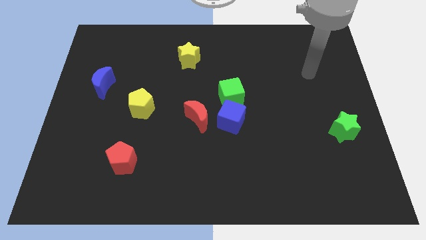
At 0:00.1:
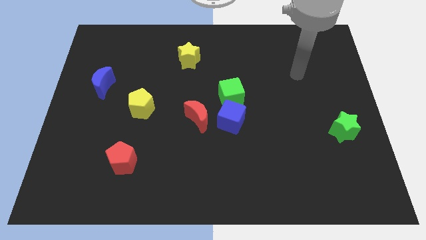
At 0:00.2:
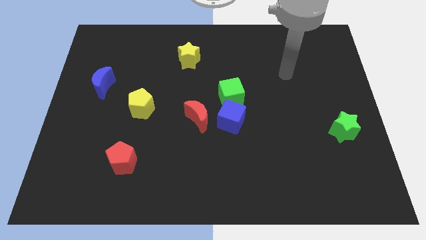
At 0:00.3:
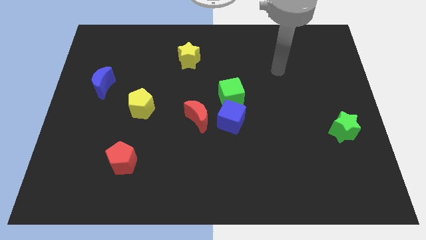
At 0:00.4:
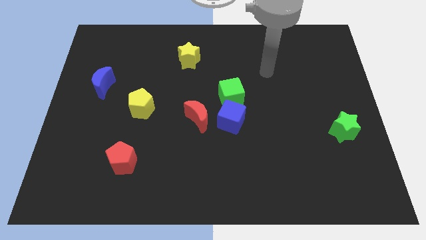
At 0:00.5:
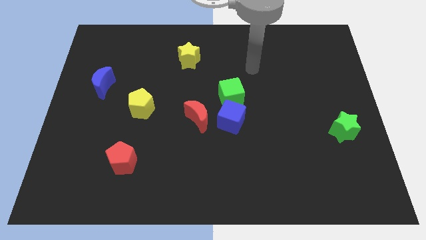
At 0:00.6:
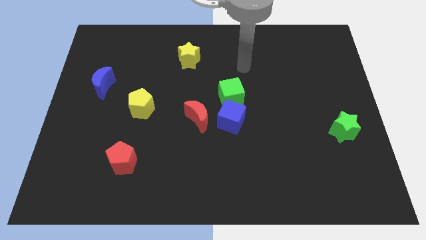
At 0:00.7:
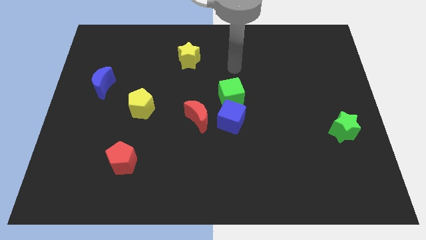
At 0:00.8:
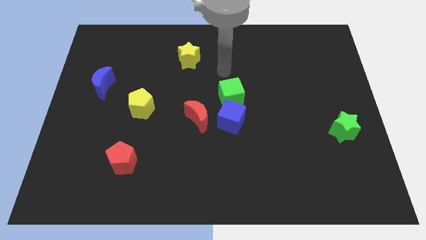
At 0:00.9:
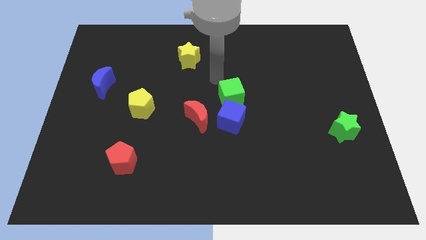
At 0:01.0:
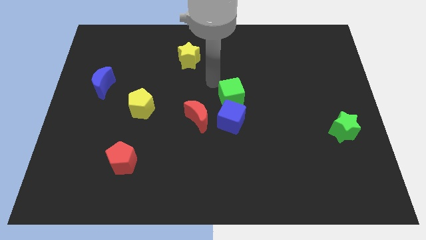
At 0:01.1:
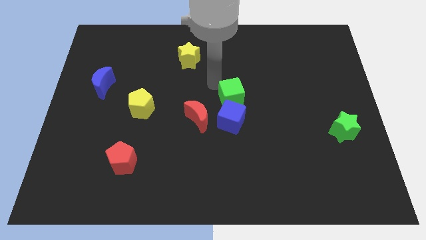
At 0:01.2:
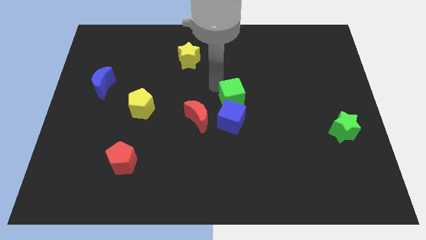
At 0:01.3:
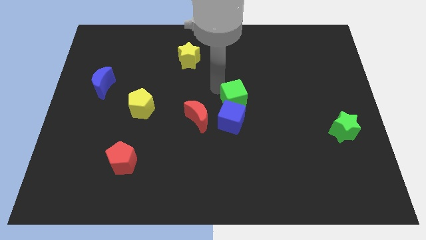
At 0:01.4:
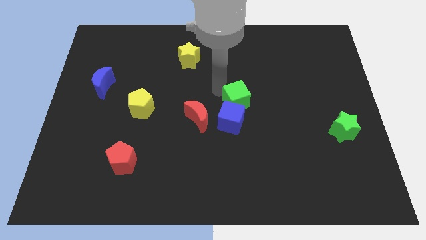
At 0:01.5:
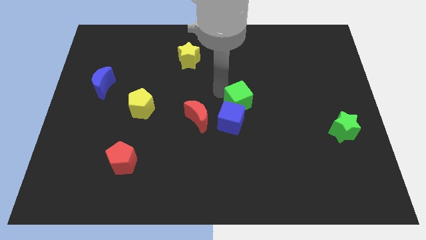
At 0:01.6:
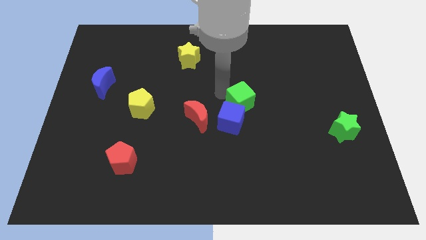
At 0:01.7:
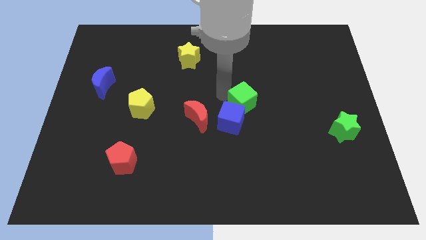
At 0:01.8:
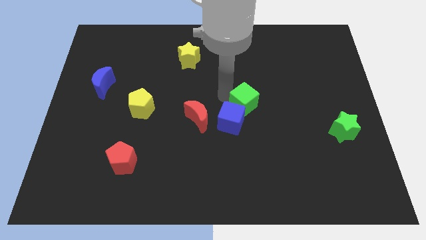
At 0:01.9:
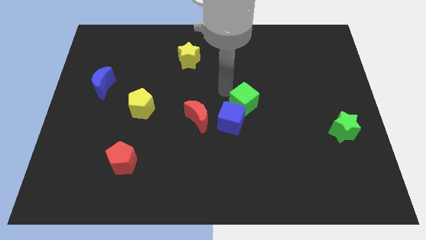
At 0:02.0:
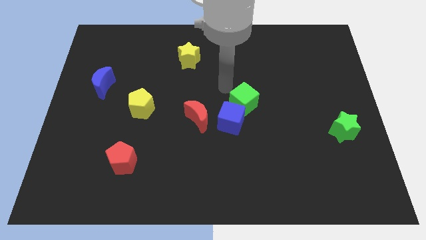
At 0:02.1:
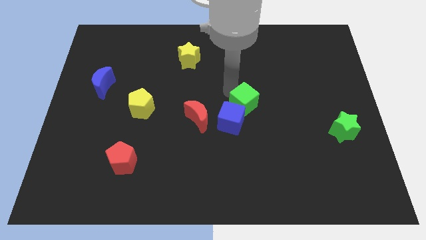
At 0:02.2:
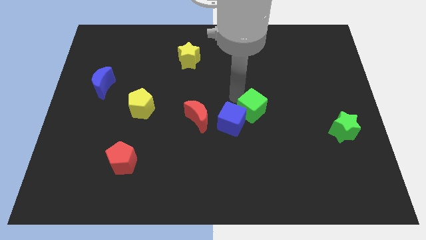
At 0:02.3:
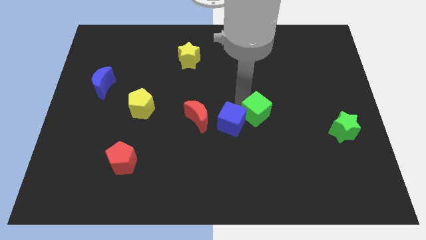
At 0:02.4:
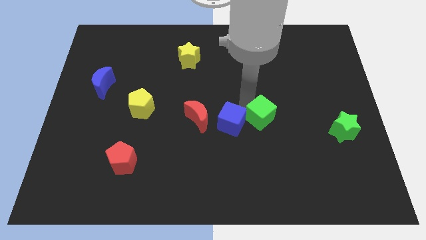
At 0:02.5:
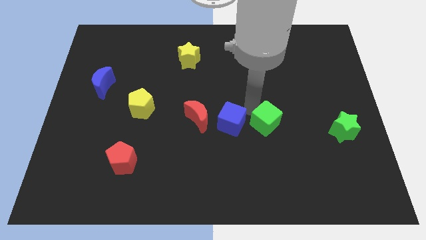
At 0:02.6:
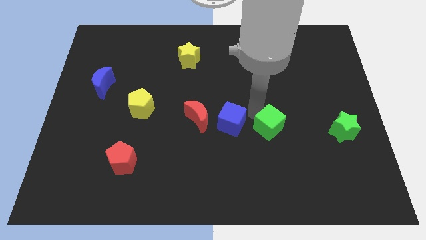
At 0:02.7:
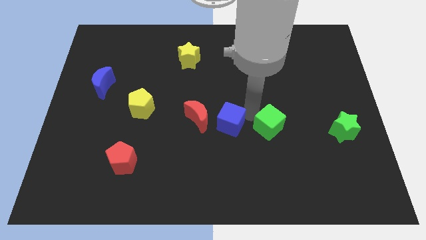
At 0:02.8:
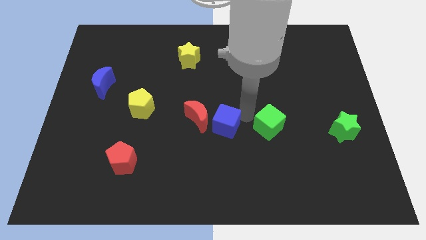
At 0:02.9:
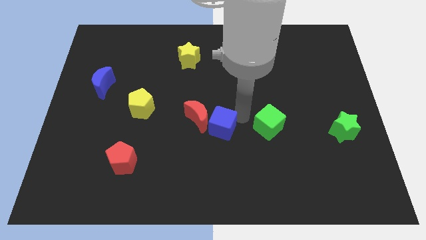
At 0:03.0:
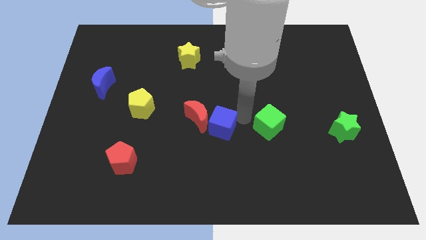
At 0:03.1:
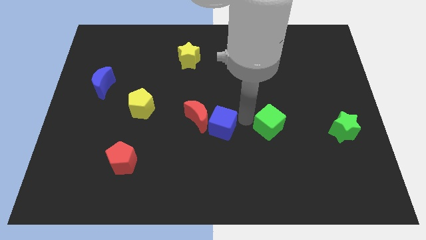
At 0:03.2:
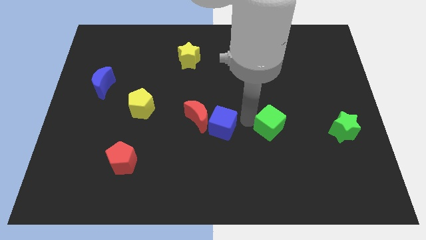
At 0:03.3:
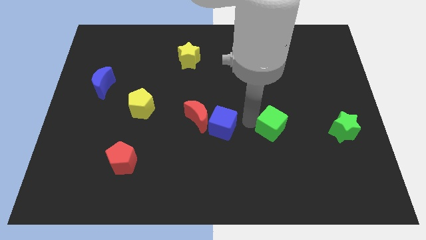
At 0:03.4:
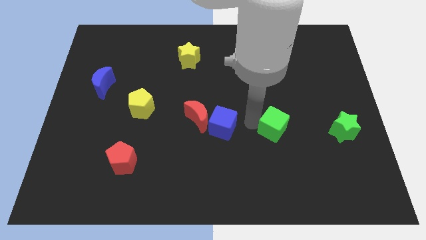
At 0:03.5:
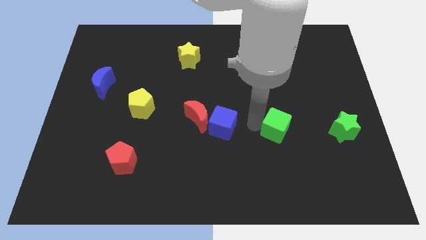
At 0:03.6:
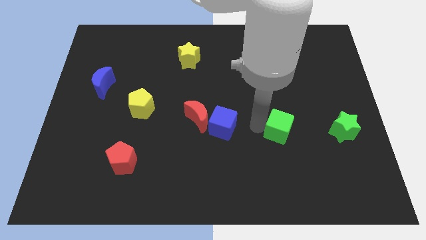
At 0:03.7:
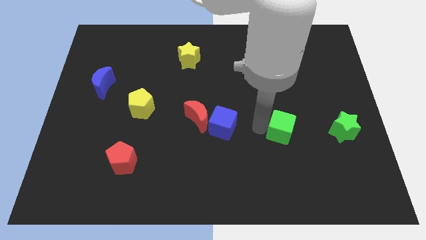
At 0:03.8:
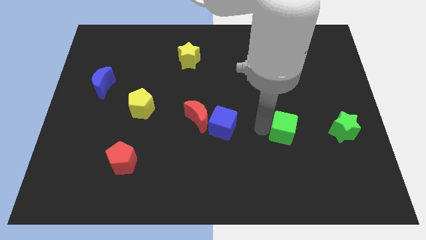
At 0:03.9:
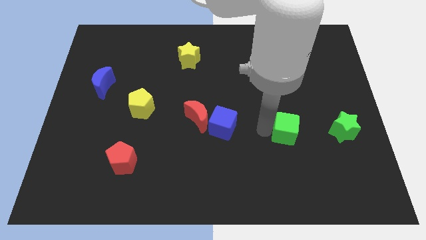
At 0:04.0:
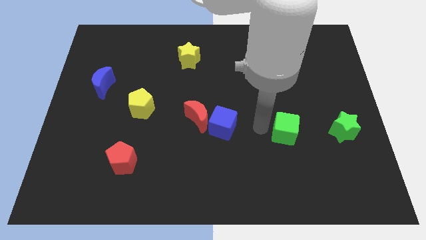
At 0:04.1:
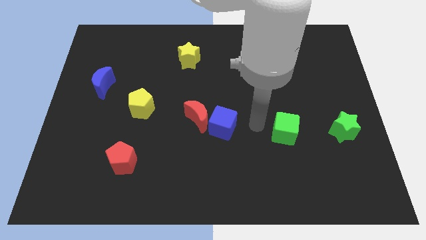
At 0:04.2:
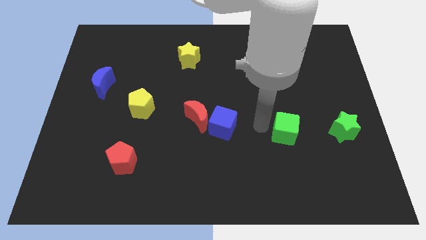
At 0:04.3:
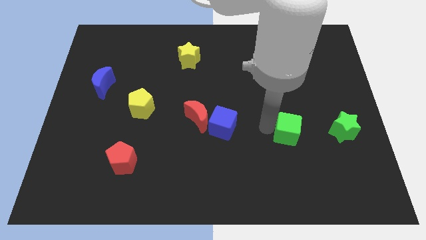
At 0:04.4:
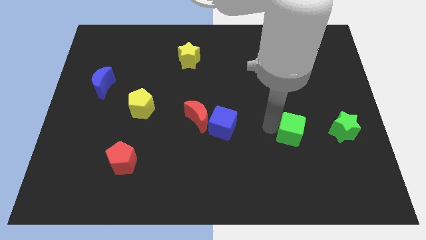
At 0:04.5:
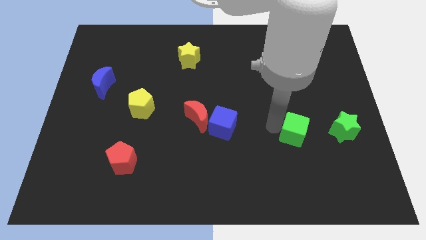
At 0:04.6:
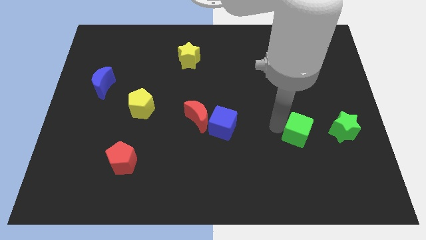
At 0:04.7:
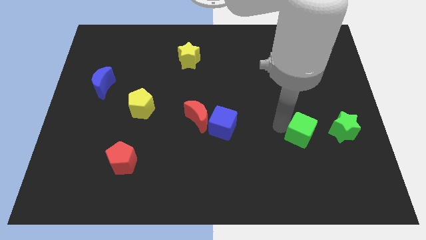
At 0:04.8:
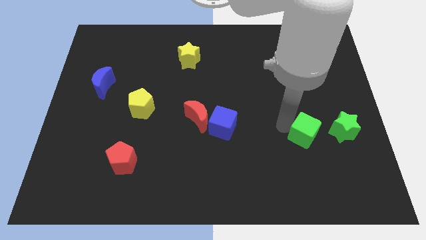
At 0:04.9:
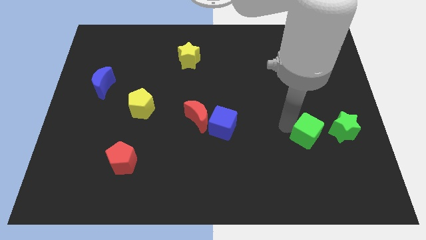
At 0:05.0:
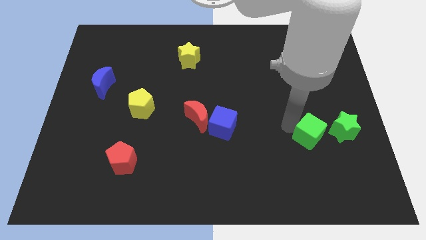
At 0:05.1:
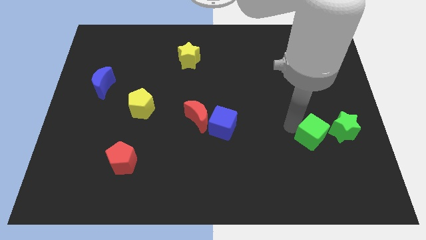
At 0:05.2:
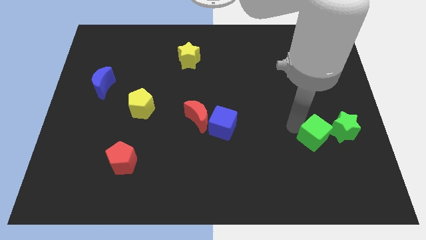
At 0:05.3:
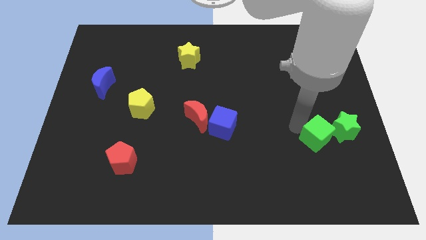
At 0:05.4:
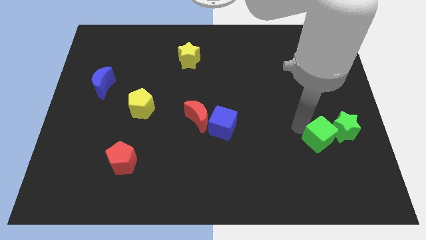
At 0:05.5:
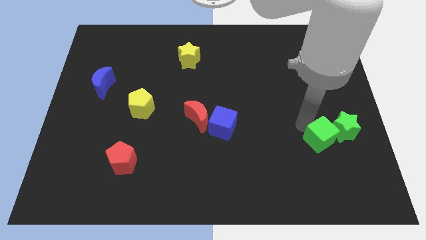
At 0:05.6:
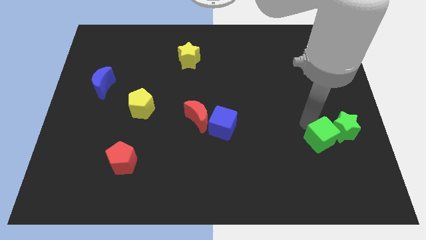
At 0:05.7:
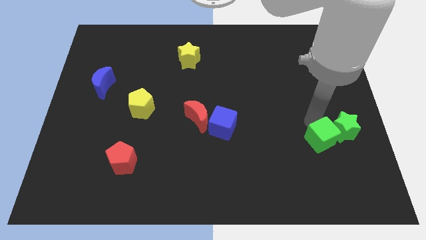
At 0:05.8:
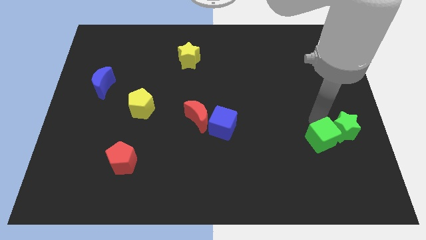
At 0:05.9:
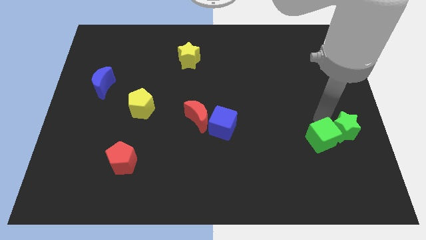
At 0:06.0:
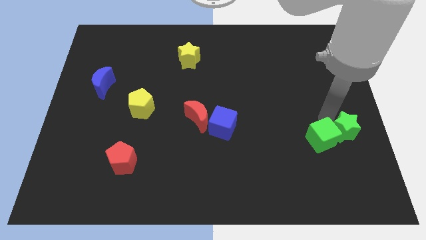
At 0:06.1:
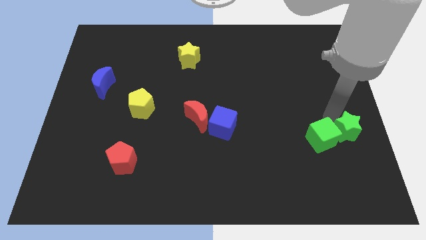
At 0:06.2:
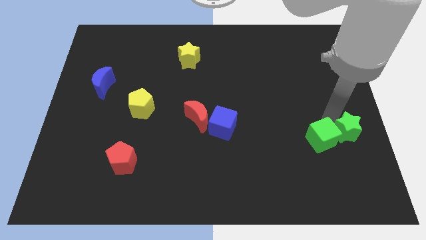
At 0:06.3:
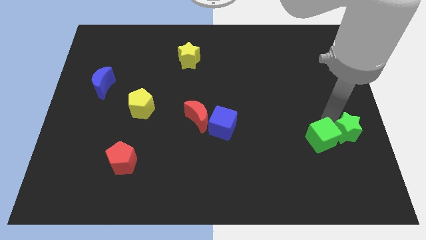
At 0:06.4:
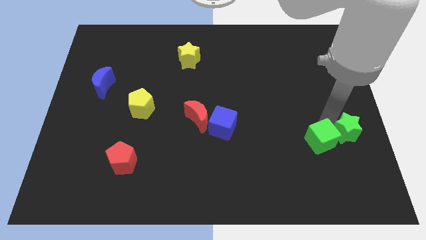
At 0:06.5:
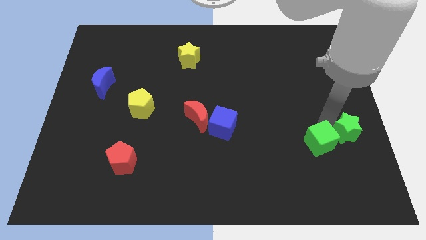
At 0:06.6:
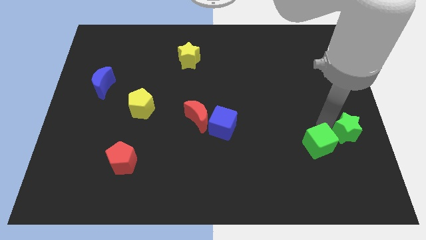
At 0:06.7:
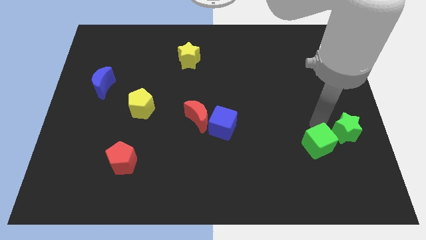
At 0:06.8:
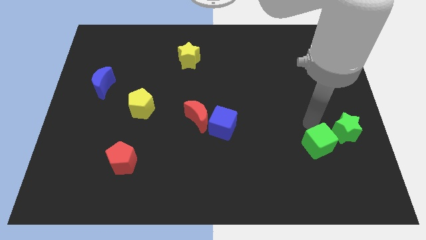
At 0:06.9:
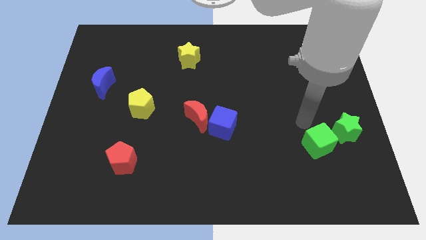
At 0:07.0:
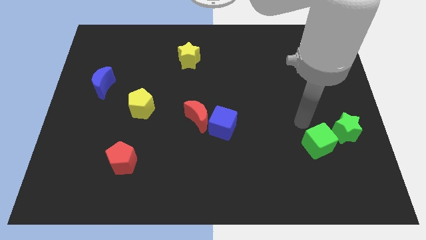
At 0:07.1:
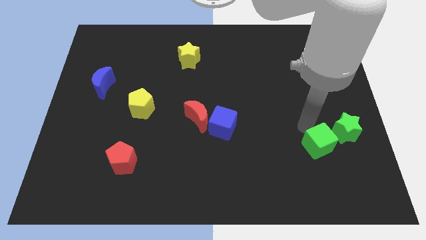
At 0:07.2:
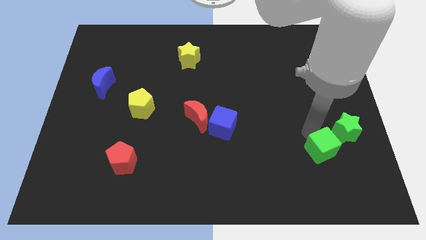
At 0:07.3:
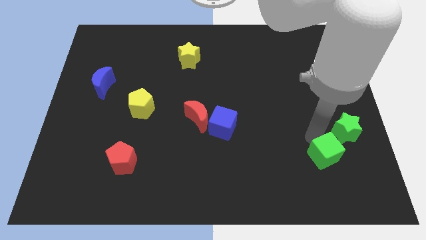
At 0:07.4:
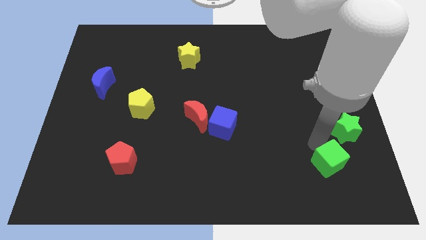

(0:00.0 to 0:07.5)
push the green cube to the bottom of the green star

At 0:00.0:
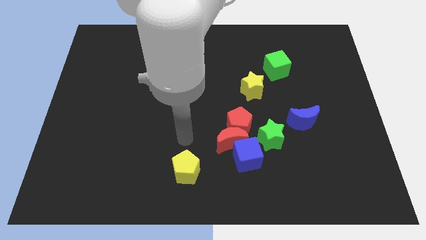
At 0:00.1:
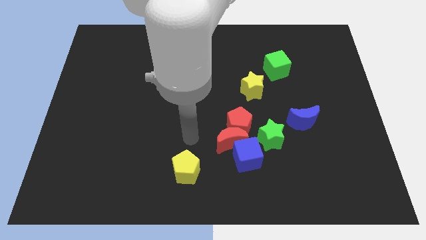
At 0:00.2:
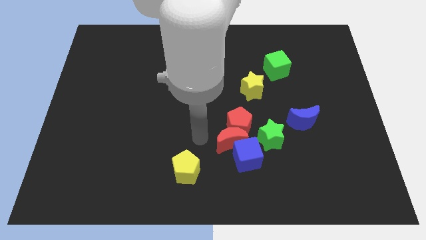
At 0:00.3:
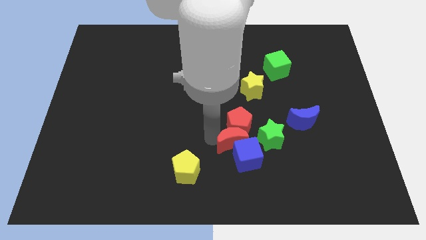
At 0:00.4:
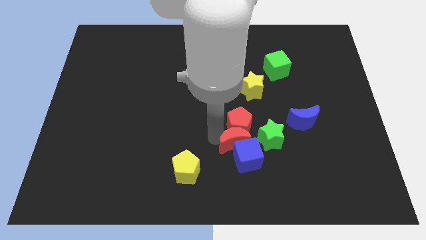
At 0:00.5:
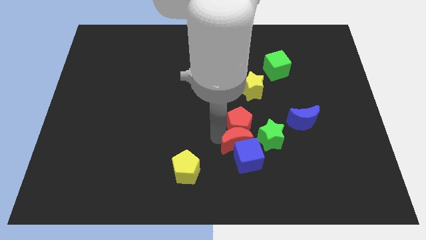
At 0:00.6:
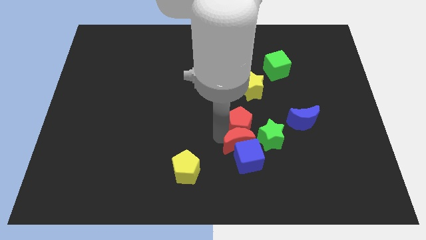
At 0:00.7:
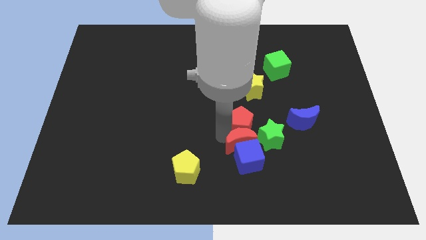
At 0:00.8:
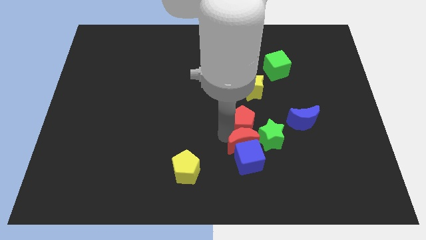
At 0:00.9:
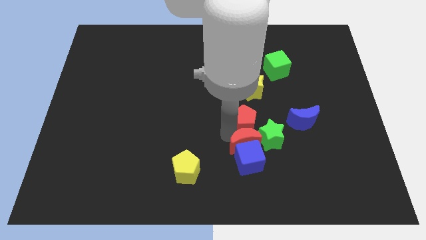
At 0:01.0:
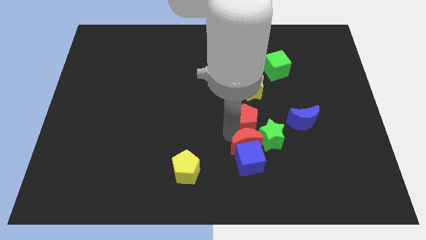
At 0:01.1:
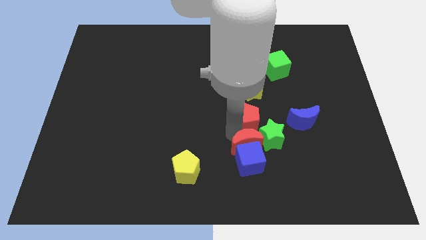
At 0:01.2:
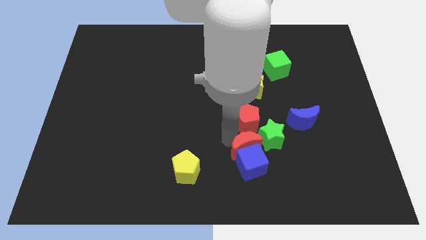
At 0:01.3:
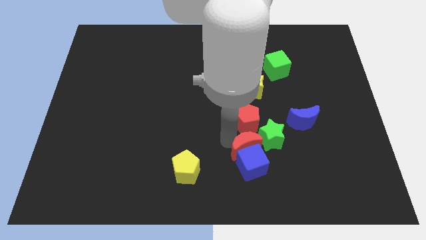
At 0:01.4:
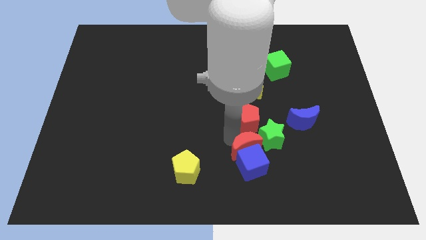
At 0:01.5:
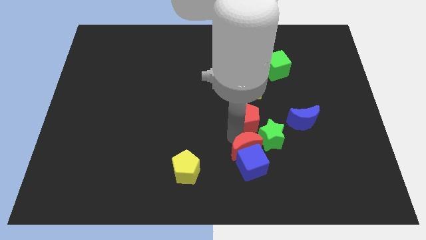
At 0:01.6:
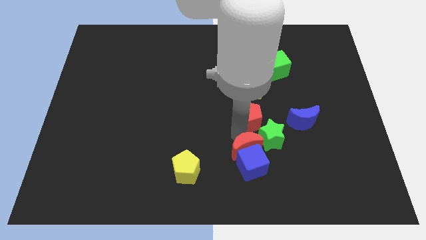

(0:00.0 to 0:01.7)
push the red pentagon above the green star
